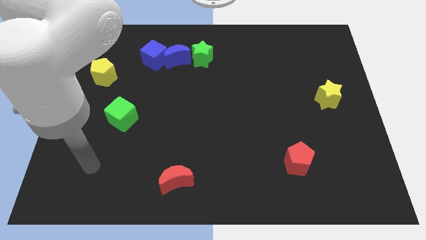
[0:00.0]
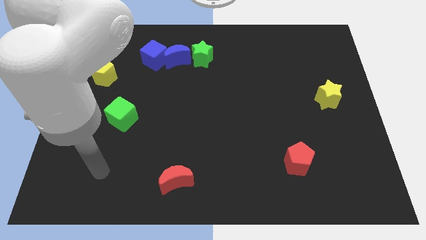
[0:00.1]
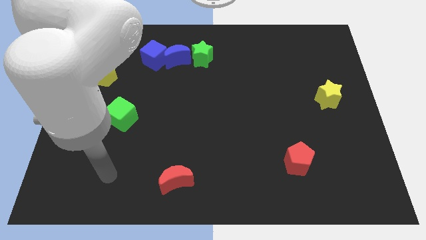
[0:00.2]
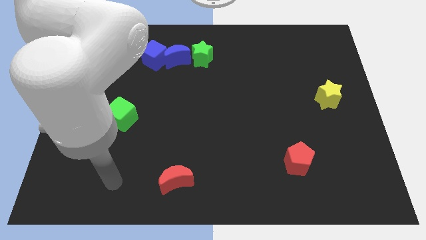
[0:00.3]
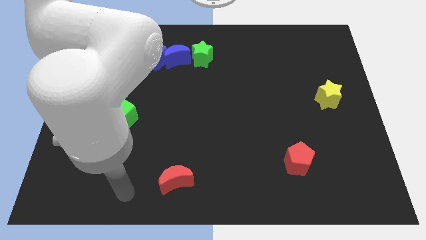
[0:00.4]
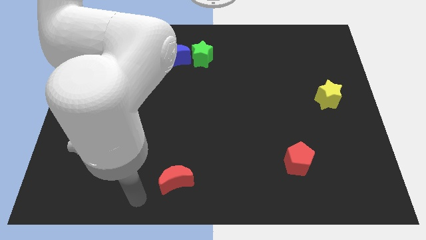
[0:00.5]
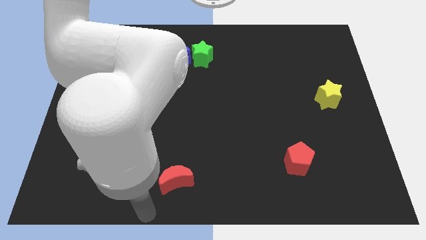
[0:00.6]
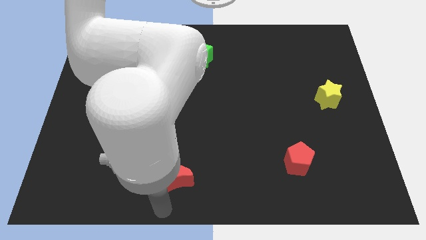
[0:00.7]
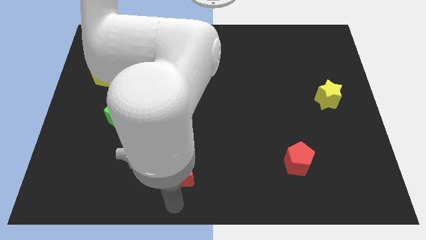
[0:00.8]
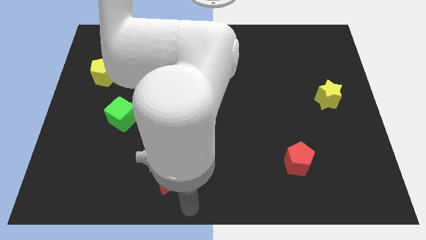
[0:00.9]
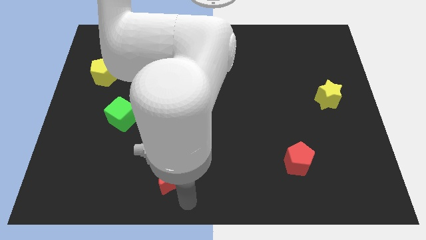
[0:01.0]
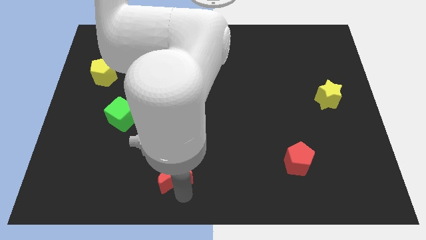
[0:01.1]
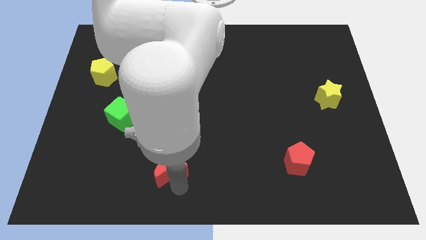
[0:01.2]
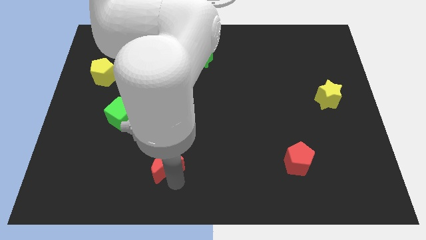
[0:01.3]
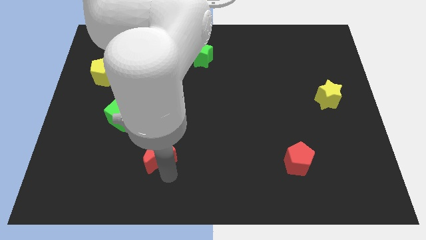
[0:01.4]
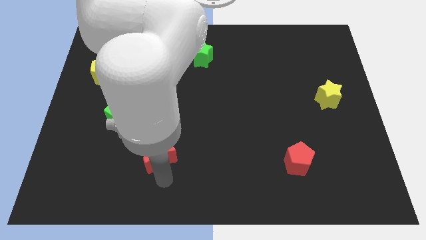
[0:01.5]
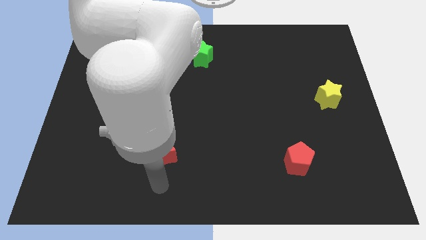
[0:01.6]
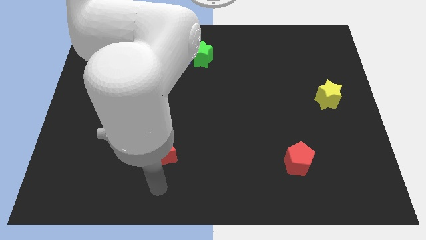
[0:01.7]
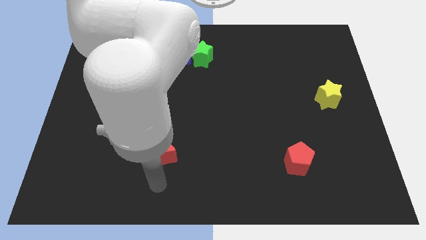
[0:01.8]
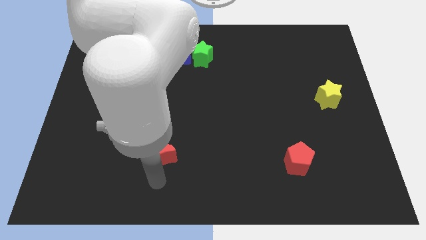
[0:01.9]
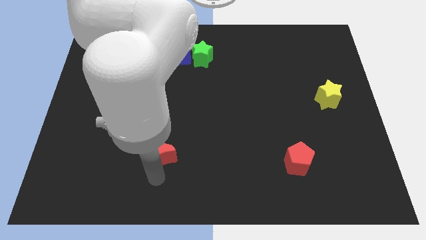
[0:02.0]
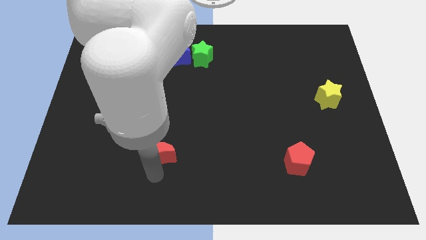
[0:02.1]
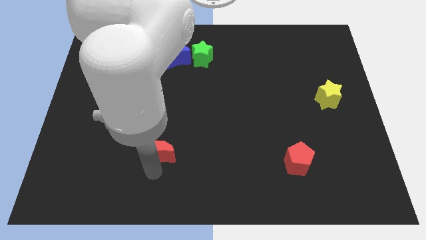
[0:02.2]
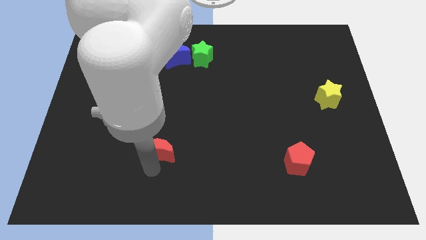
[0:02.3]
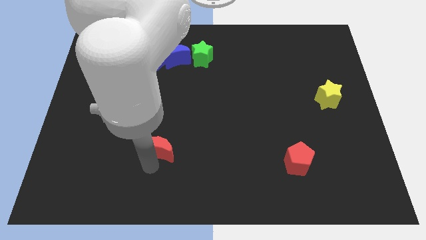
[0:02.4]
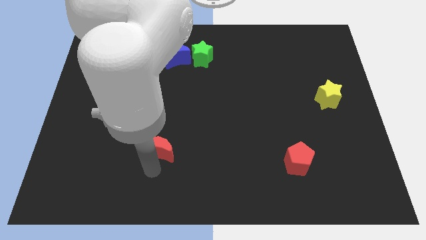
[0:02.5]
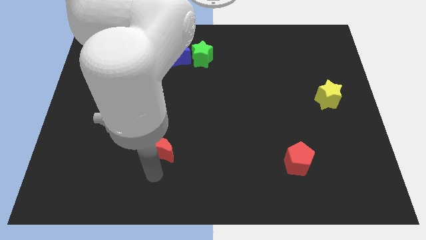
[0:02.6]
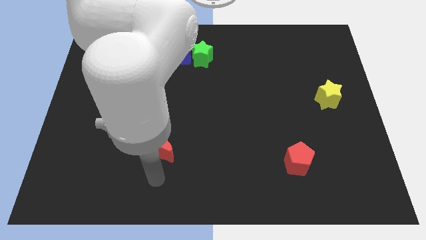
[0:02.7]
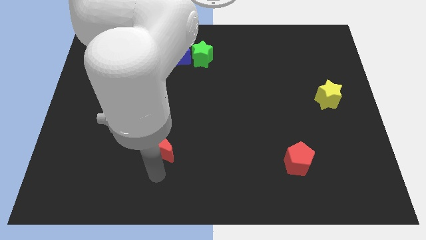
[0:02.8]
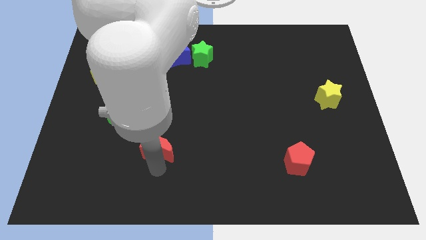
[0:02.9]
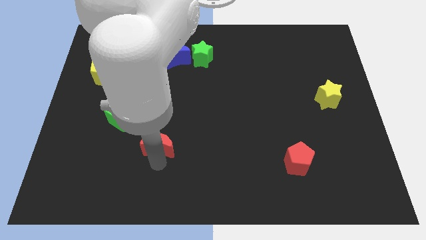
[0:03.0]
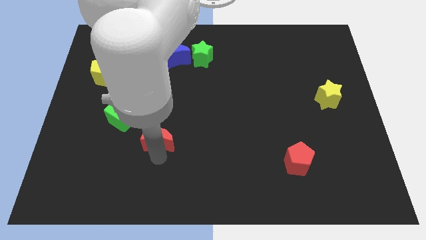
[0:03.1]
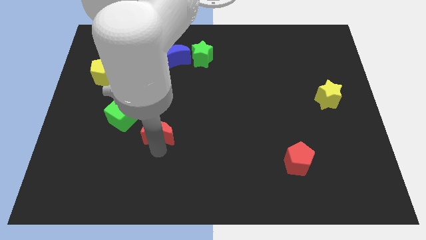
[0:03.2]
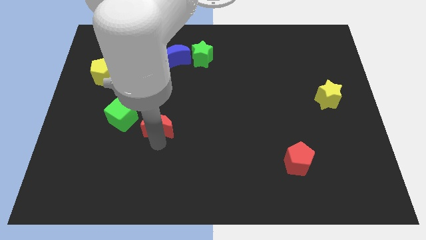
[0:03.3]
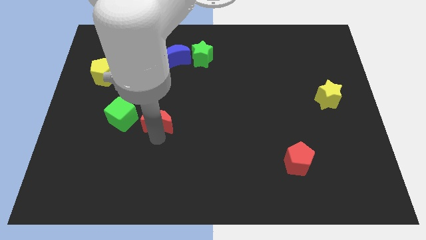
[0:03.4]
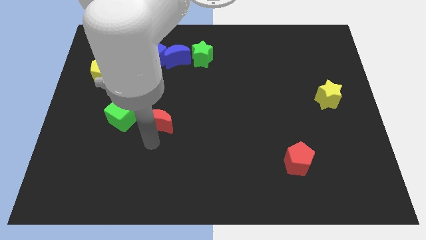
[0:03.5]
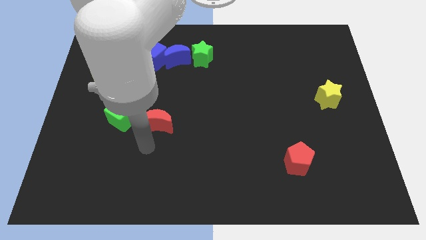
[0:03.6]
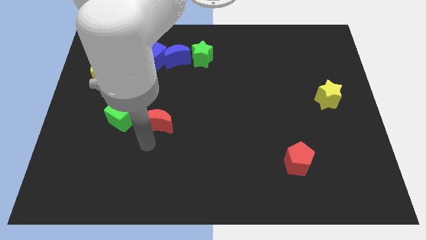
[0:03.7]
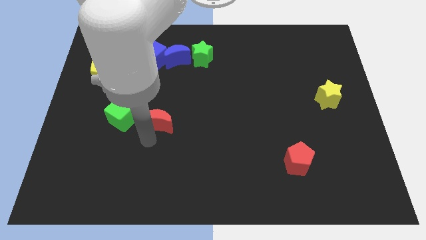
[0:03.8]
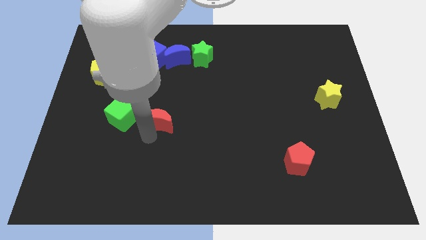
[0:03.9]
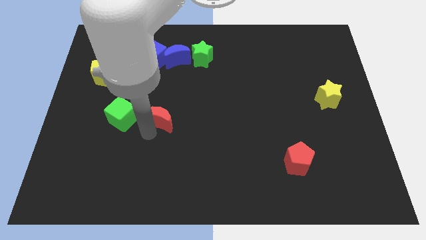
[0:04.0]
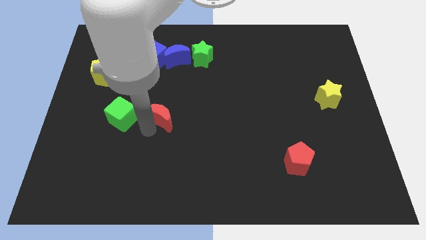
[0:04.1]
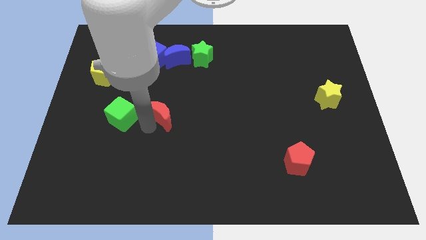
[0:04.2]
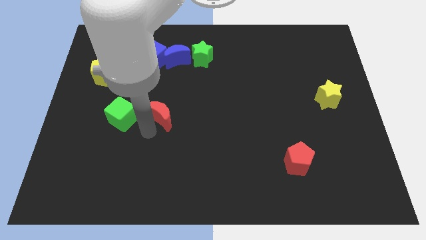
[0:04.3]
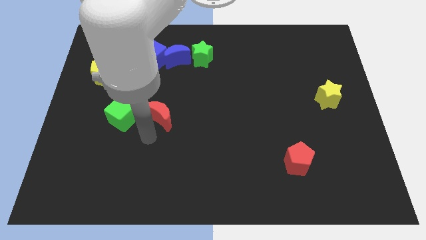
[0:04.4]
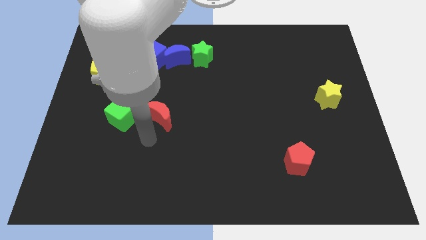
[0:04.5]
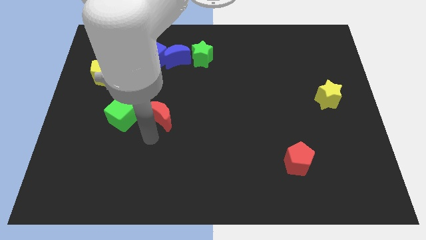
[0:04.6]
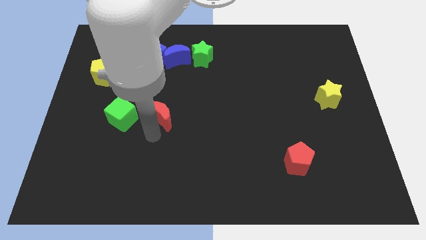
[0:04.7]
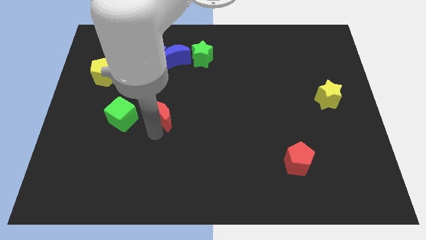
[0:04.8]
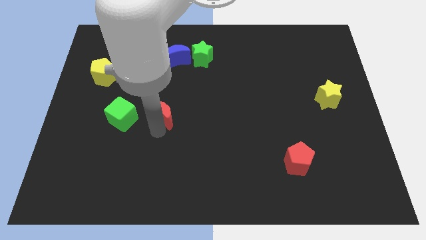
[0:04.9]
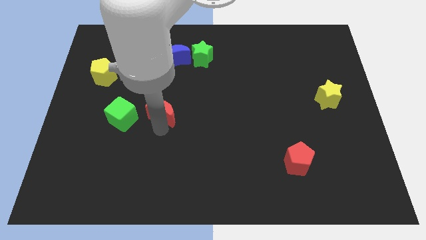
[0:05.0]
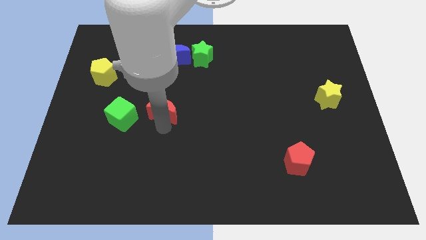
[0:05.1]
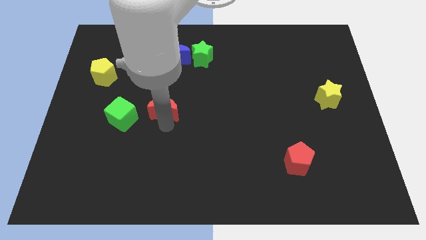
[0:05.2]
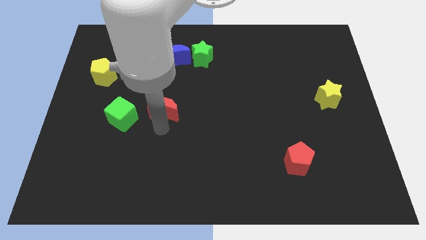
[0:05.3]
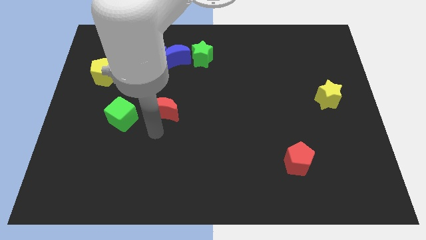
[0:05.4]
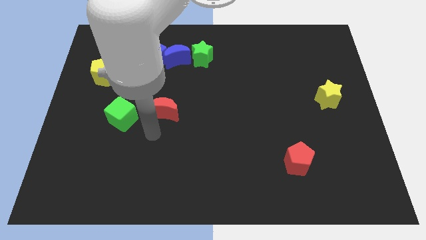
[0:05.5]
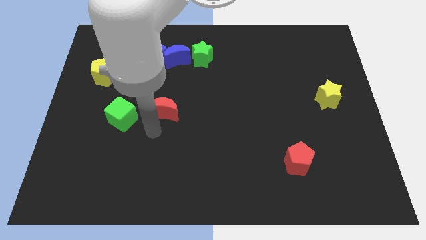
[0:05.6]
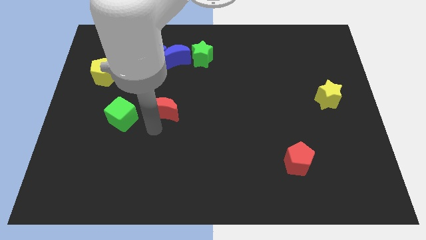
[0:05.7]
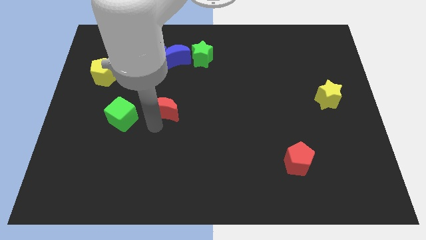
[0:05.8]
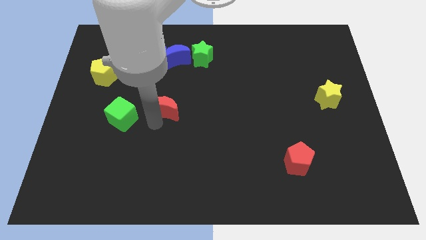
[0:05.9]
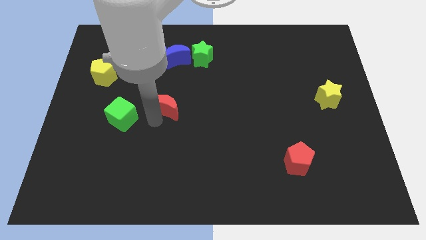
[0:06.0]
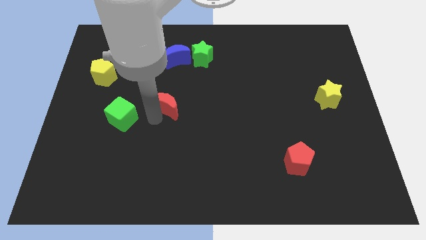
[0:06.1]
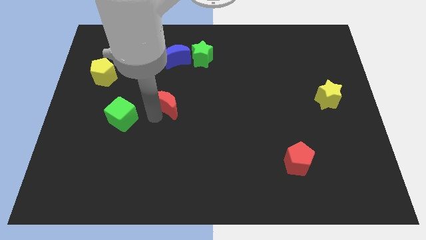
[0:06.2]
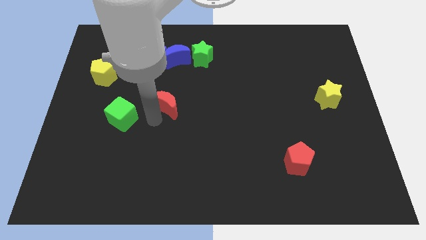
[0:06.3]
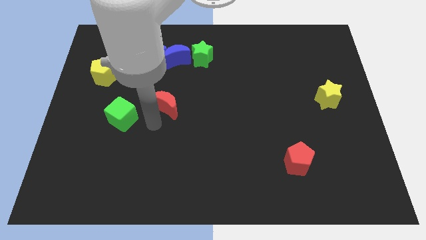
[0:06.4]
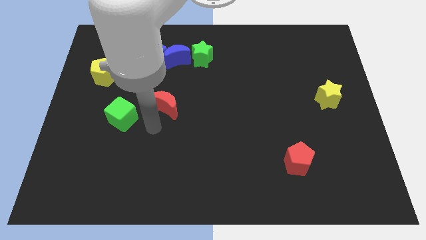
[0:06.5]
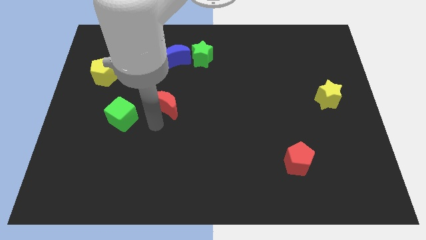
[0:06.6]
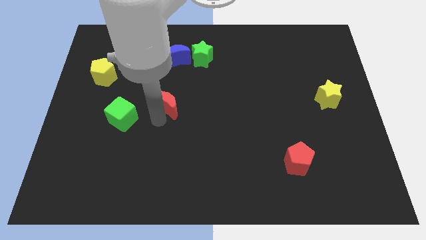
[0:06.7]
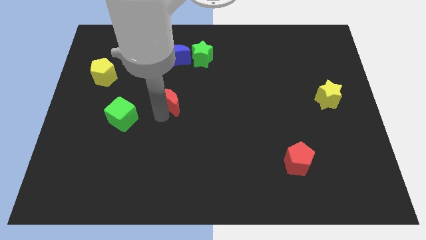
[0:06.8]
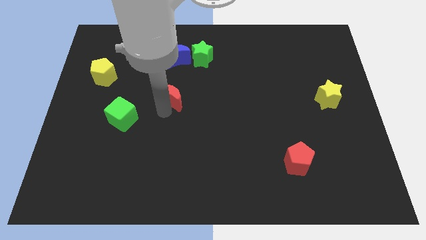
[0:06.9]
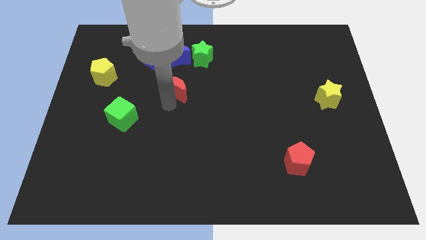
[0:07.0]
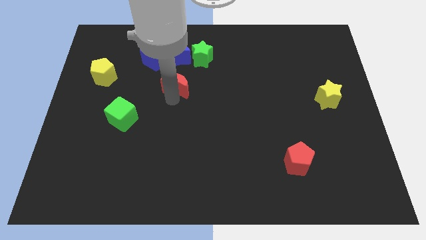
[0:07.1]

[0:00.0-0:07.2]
push the red moon to the bottom left side of the green star
